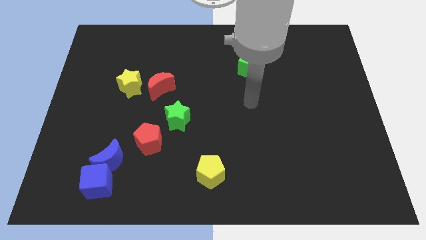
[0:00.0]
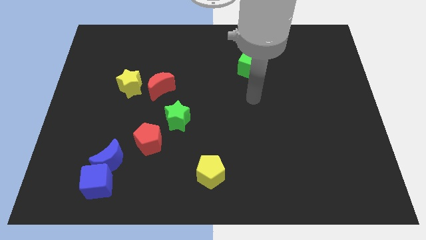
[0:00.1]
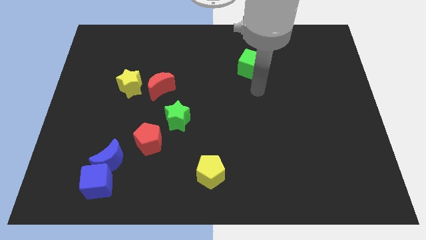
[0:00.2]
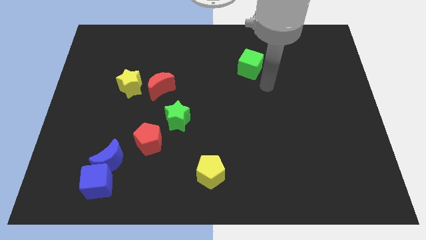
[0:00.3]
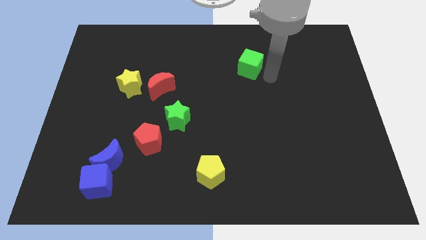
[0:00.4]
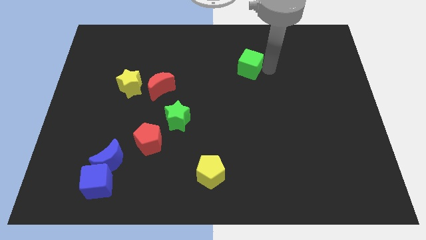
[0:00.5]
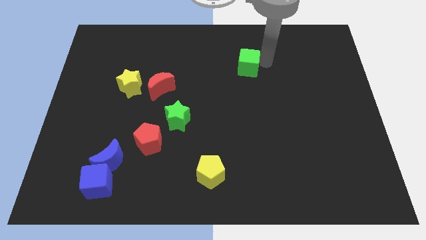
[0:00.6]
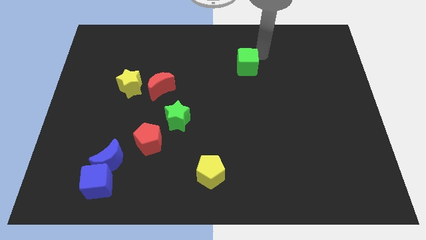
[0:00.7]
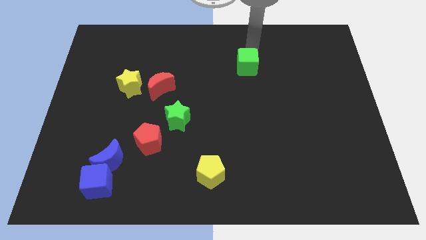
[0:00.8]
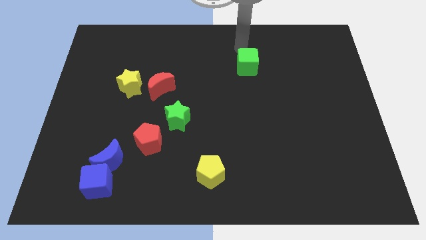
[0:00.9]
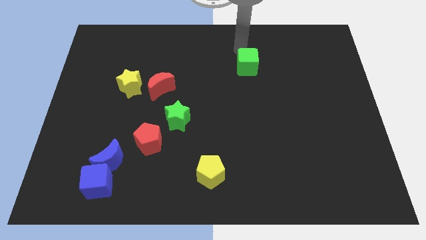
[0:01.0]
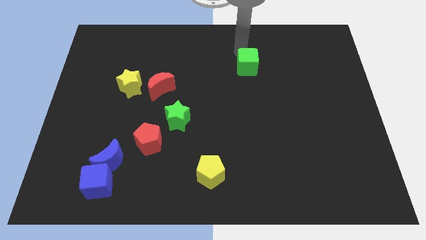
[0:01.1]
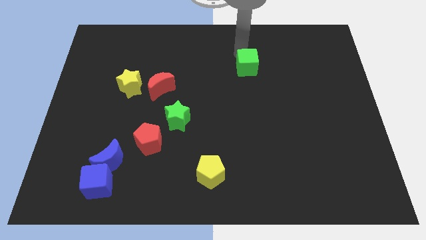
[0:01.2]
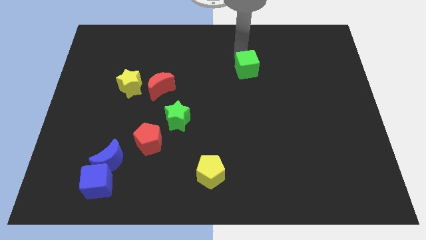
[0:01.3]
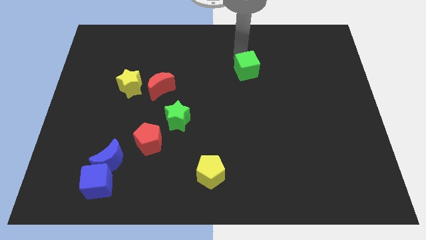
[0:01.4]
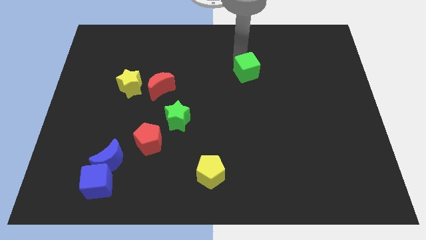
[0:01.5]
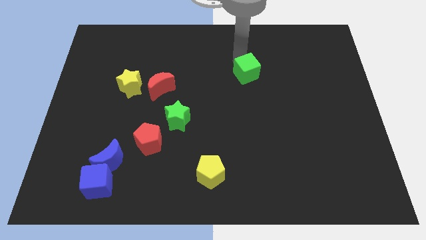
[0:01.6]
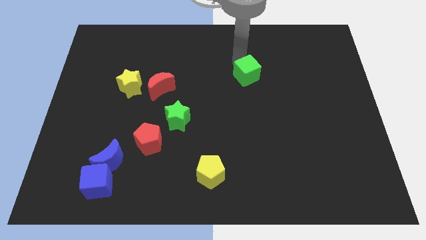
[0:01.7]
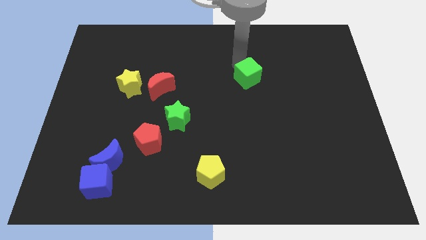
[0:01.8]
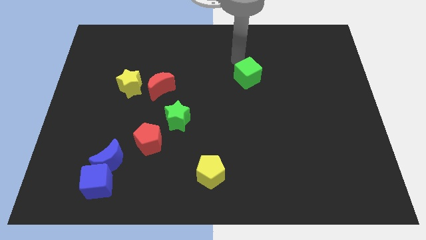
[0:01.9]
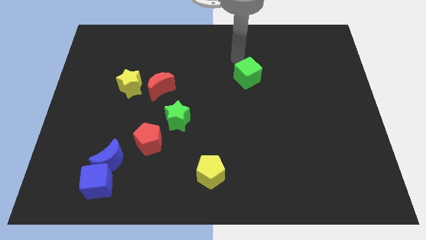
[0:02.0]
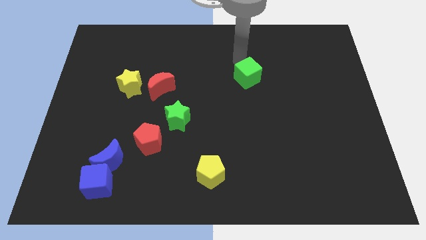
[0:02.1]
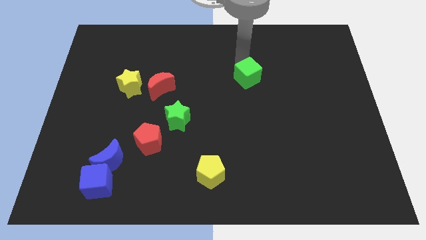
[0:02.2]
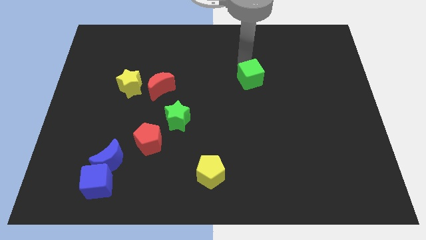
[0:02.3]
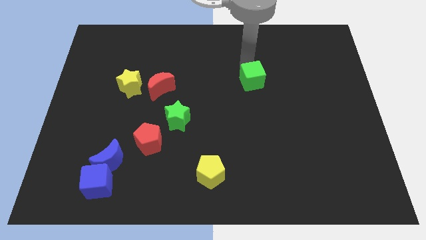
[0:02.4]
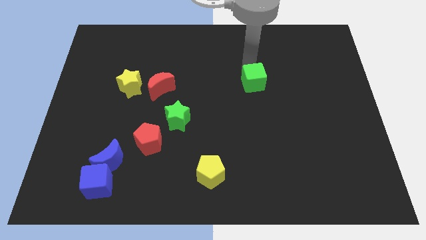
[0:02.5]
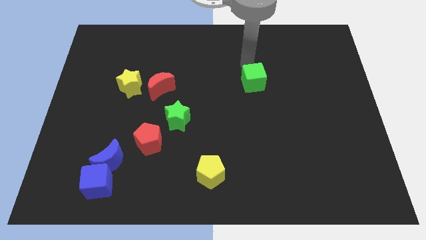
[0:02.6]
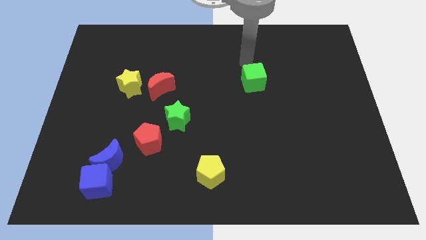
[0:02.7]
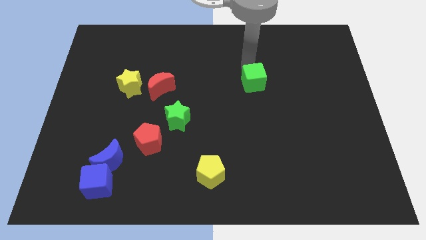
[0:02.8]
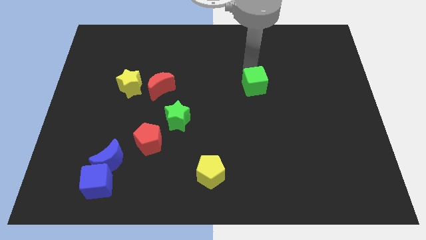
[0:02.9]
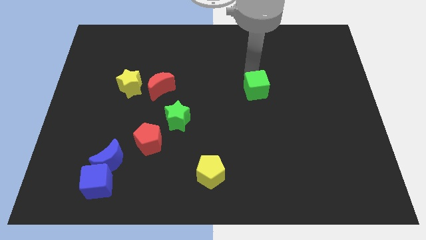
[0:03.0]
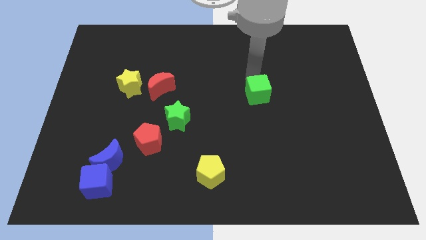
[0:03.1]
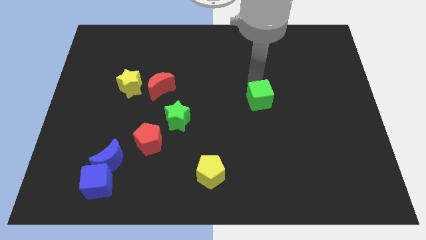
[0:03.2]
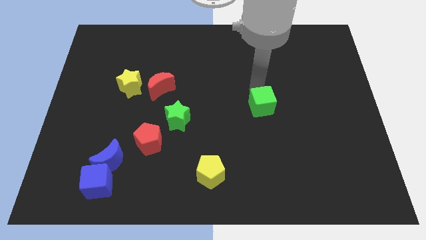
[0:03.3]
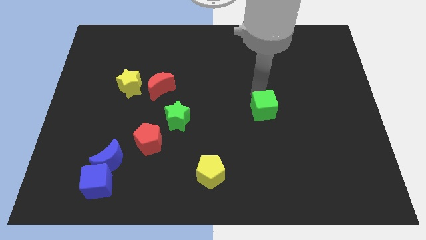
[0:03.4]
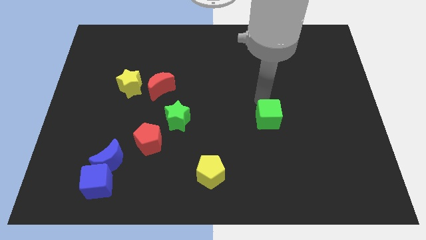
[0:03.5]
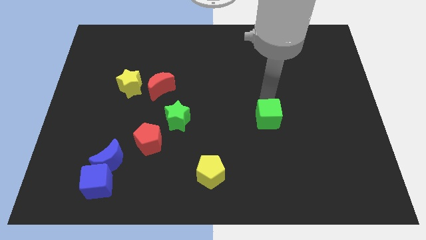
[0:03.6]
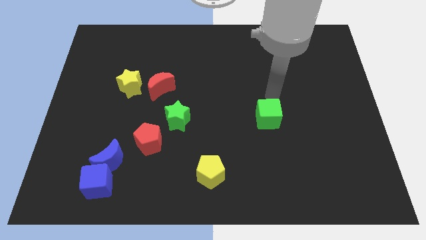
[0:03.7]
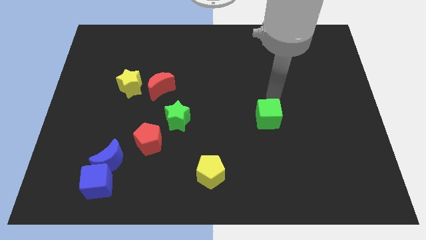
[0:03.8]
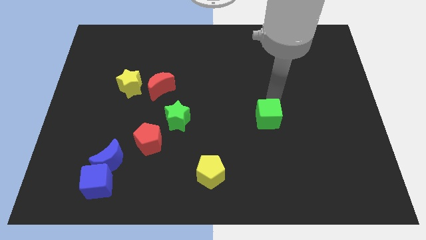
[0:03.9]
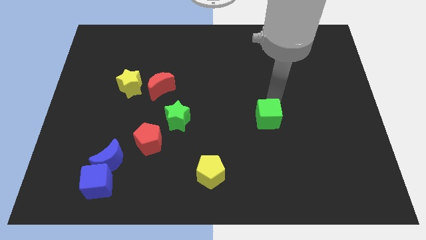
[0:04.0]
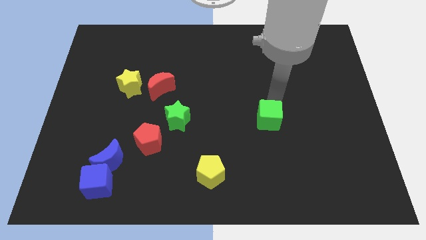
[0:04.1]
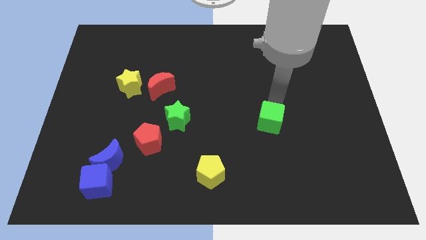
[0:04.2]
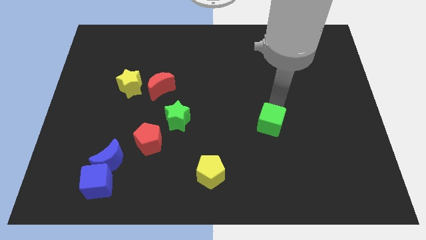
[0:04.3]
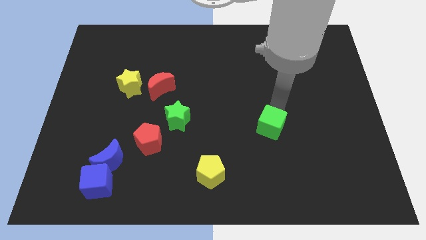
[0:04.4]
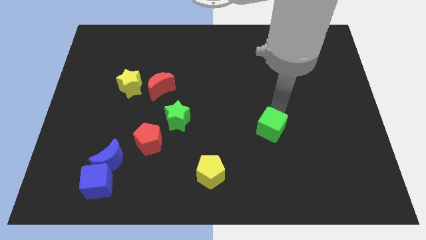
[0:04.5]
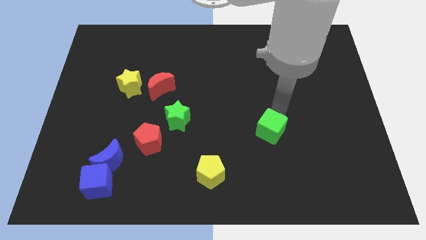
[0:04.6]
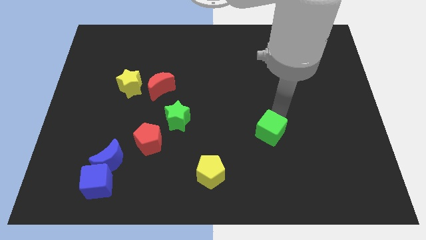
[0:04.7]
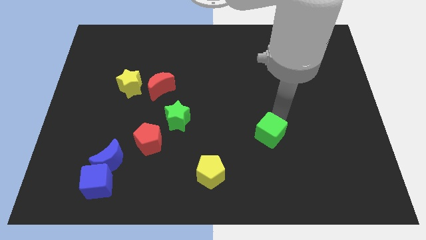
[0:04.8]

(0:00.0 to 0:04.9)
push the green cube down

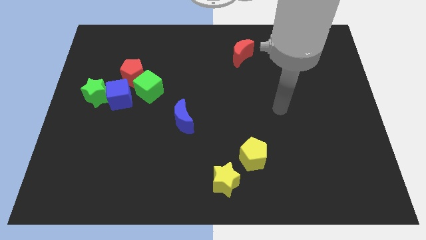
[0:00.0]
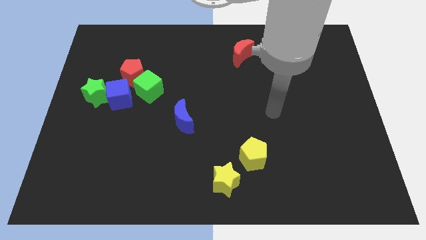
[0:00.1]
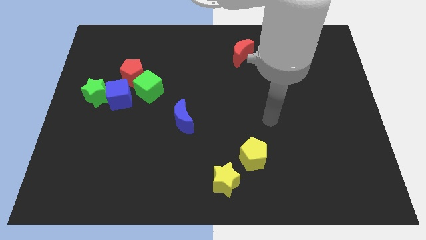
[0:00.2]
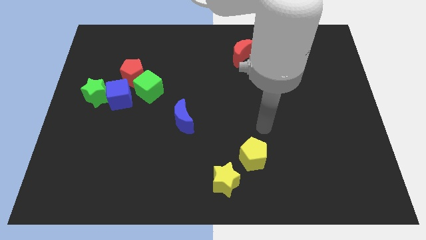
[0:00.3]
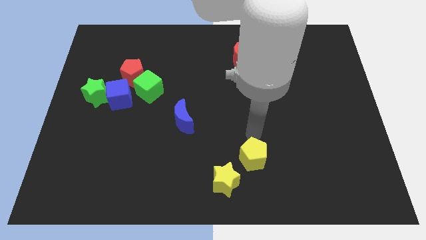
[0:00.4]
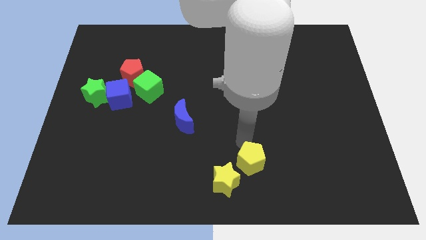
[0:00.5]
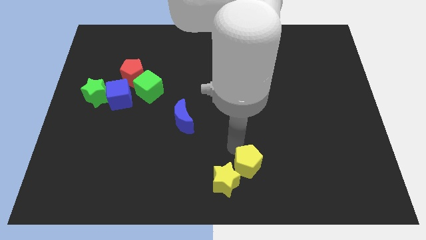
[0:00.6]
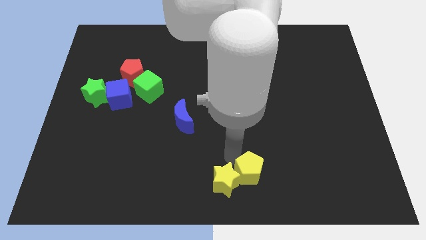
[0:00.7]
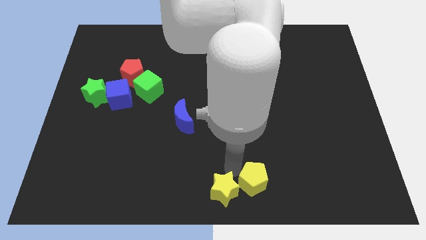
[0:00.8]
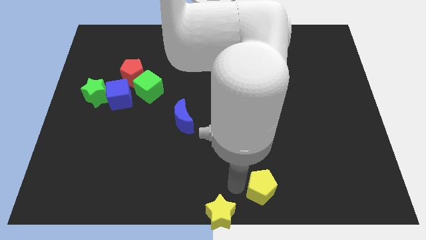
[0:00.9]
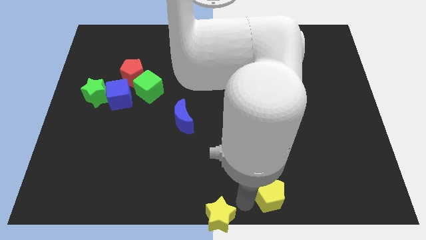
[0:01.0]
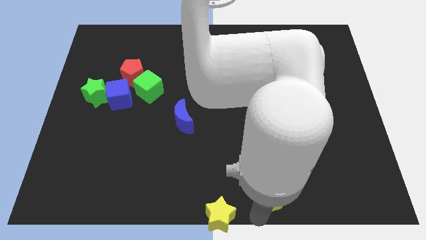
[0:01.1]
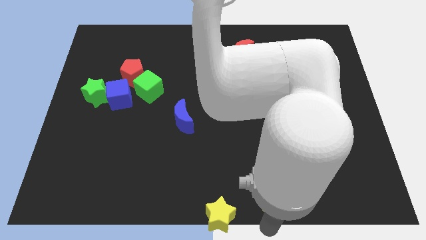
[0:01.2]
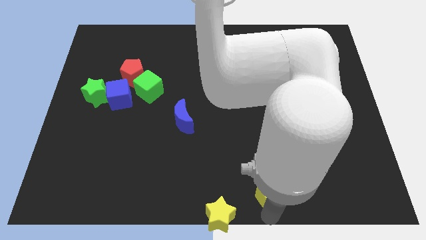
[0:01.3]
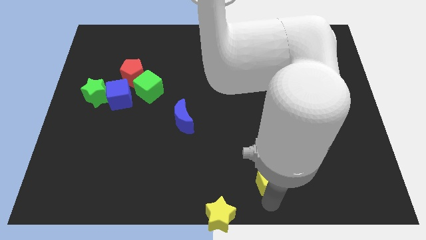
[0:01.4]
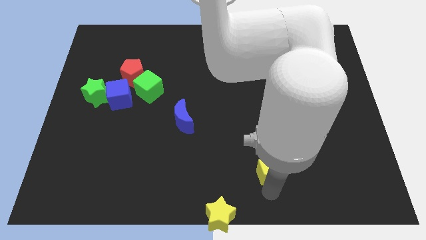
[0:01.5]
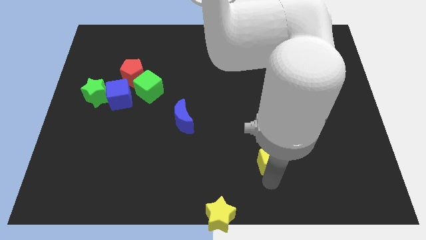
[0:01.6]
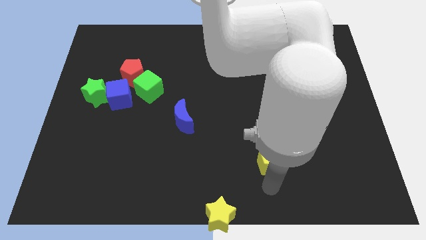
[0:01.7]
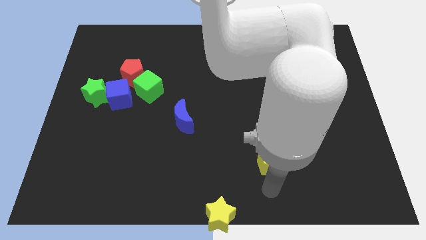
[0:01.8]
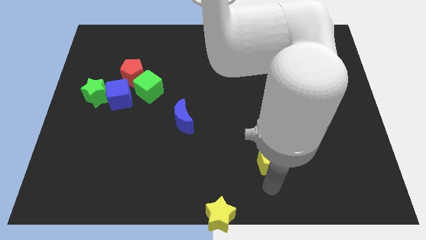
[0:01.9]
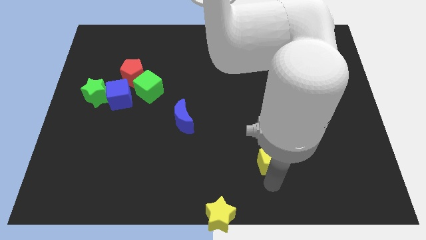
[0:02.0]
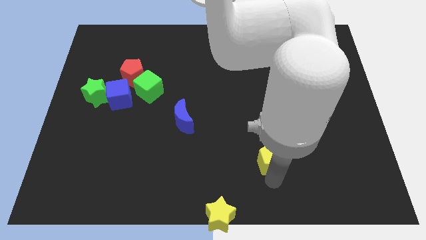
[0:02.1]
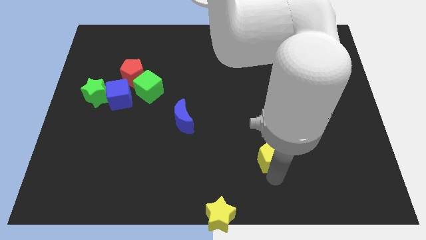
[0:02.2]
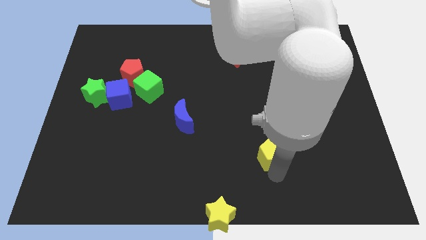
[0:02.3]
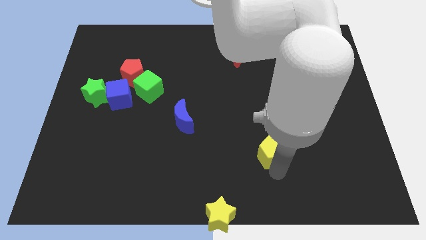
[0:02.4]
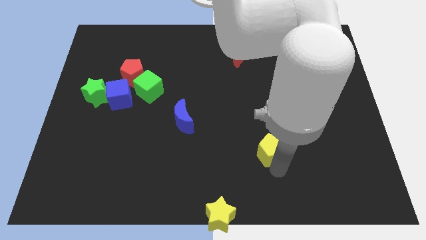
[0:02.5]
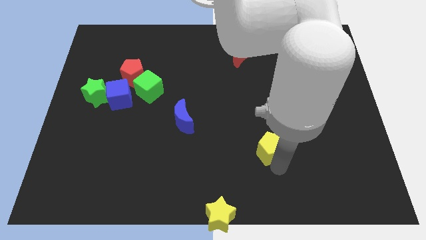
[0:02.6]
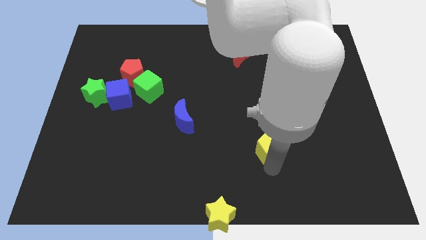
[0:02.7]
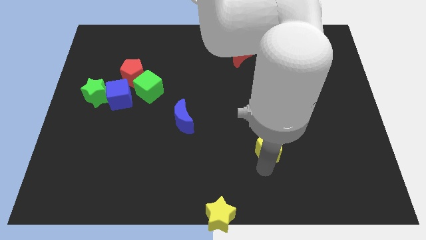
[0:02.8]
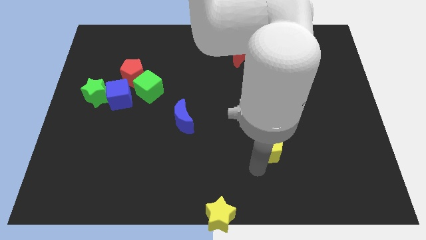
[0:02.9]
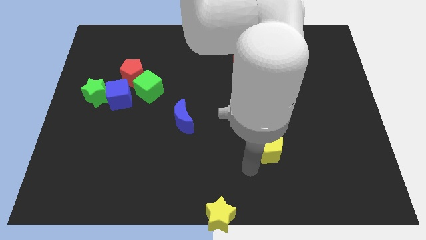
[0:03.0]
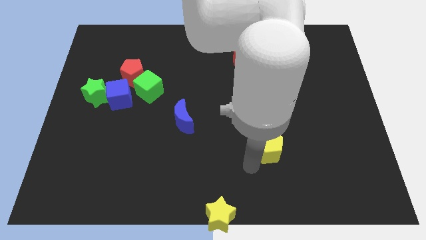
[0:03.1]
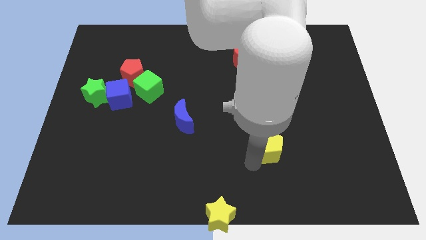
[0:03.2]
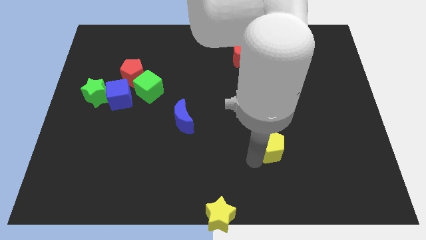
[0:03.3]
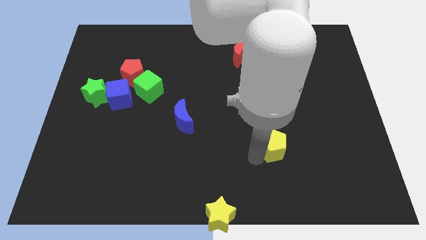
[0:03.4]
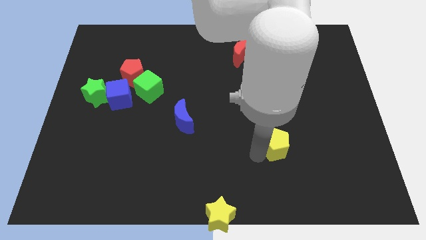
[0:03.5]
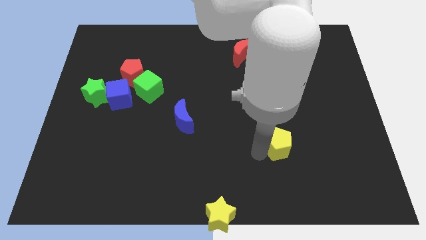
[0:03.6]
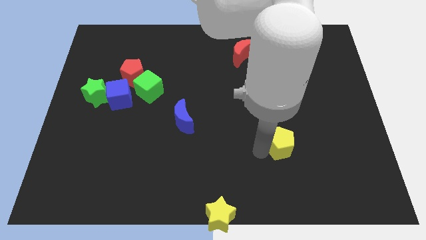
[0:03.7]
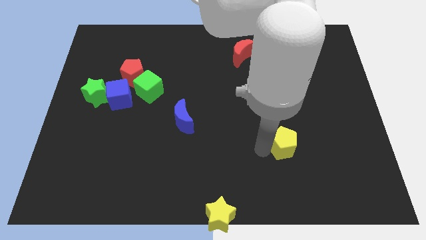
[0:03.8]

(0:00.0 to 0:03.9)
slightly push the yellow pentagon diagonally up and right
